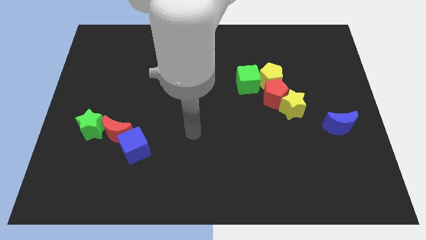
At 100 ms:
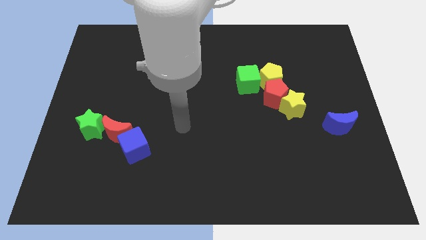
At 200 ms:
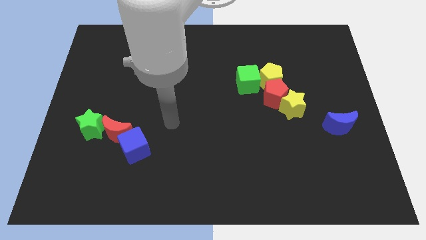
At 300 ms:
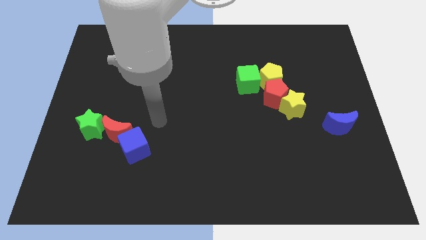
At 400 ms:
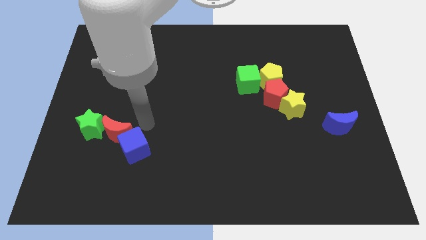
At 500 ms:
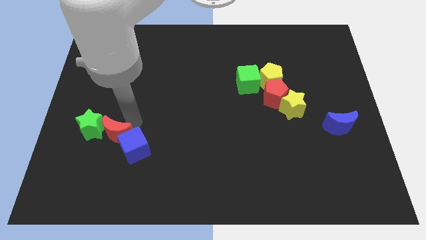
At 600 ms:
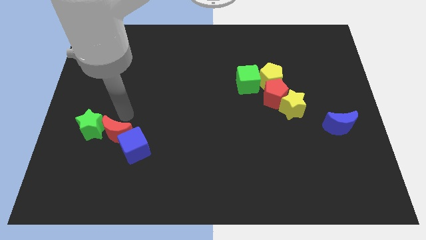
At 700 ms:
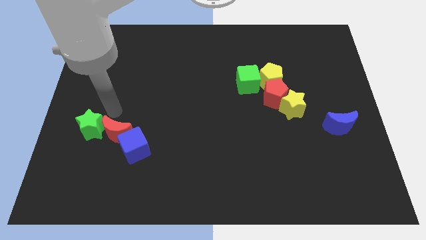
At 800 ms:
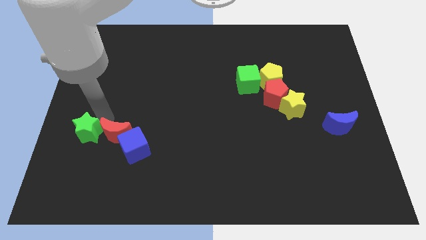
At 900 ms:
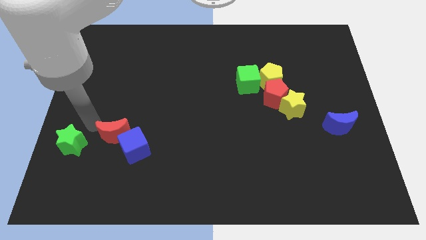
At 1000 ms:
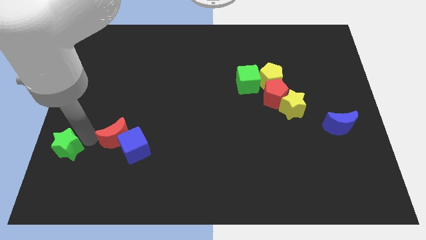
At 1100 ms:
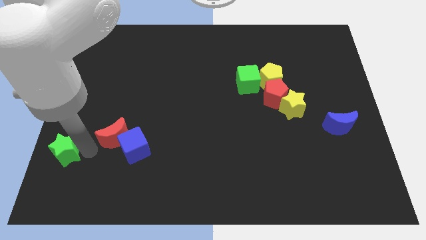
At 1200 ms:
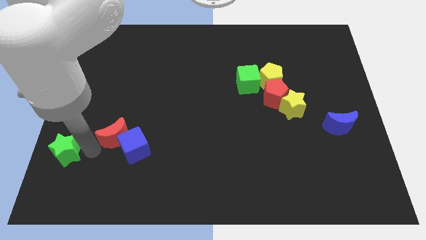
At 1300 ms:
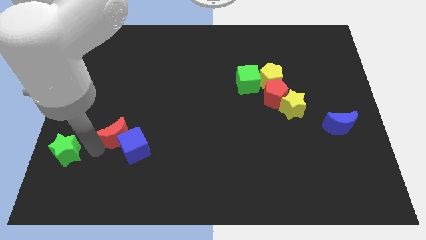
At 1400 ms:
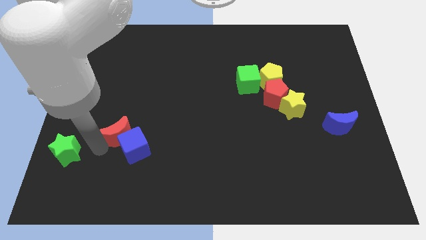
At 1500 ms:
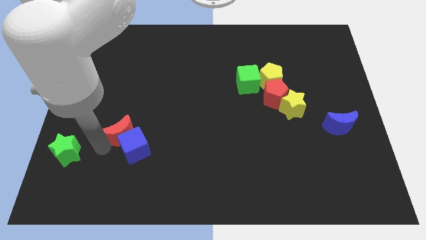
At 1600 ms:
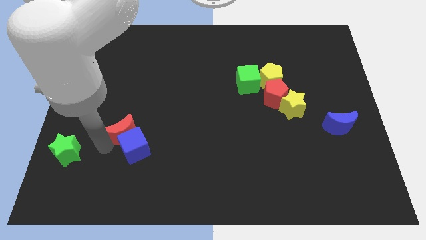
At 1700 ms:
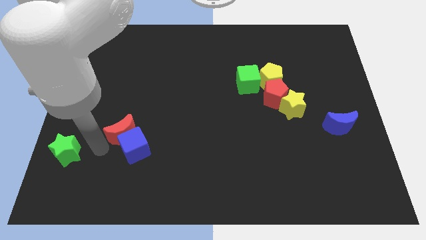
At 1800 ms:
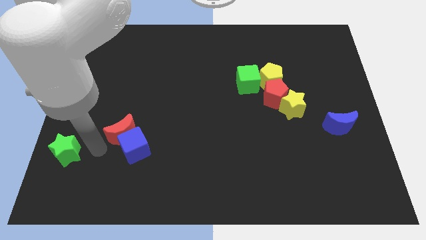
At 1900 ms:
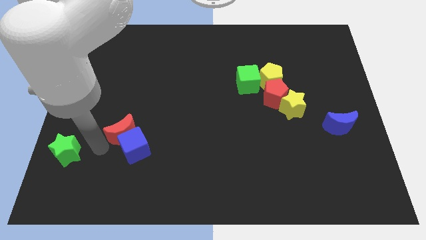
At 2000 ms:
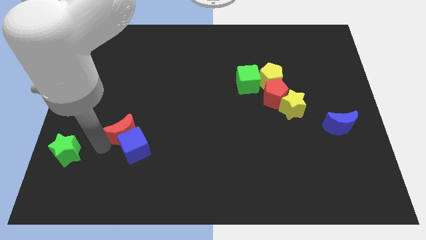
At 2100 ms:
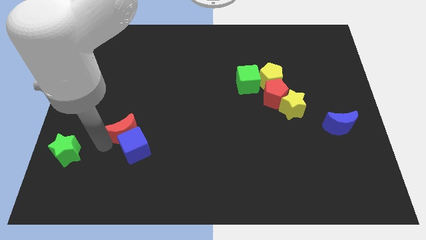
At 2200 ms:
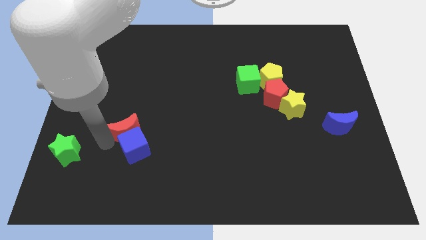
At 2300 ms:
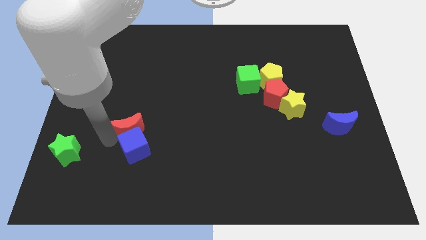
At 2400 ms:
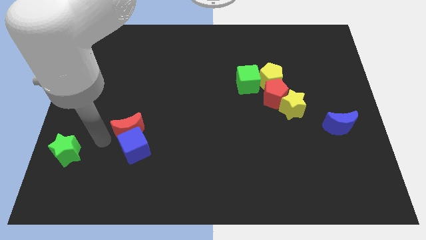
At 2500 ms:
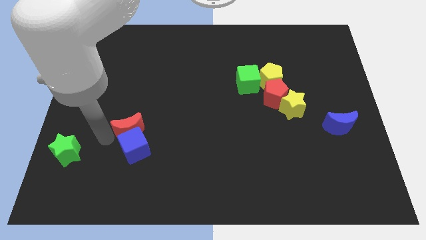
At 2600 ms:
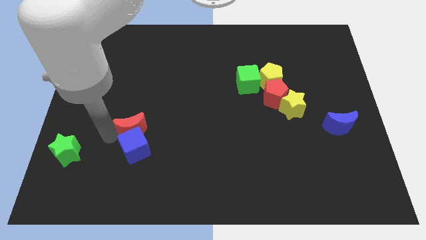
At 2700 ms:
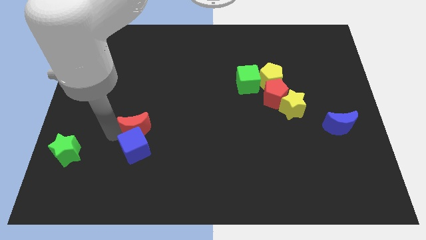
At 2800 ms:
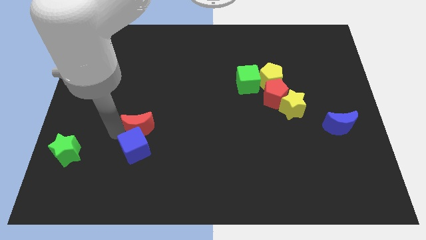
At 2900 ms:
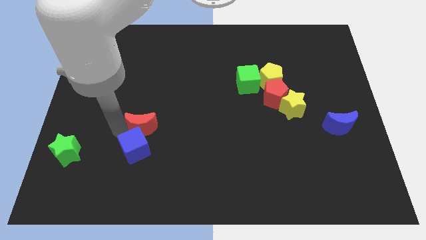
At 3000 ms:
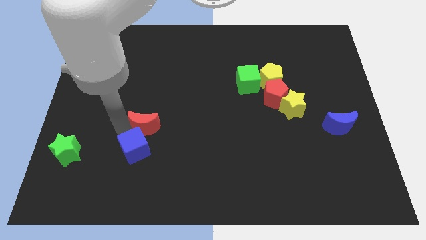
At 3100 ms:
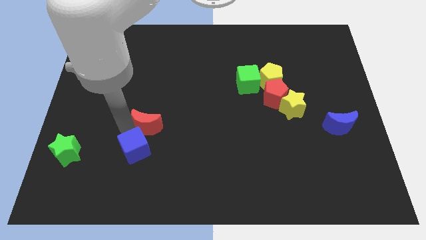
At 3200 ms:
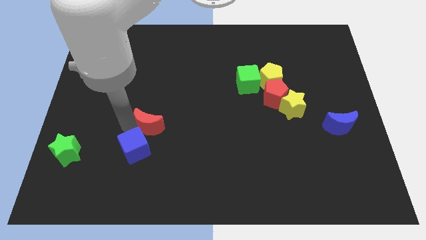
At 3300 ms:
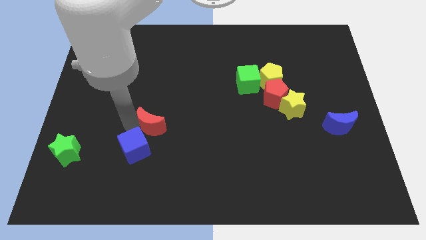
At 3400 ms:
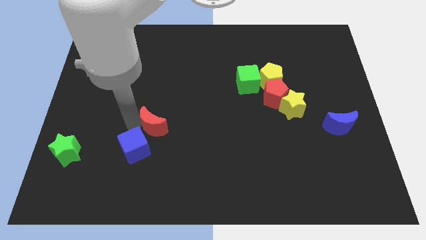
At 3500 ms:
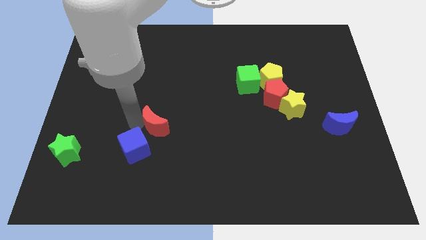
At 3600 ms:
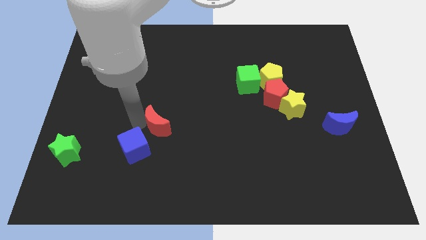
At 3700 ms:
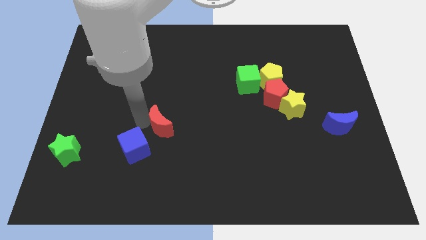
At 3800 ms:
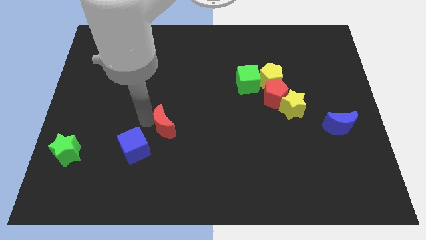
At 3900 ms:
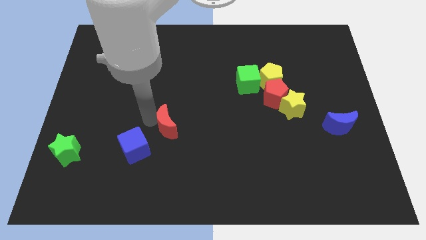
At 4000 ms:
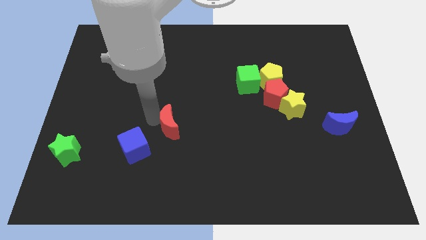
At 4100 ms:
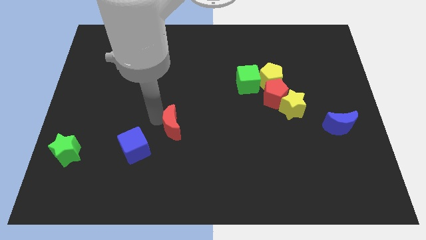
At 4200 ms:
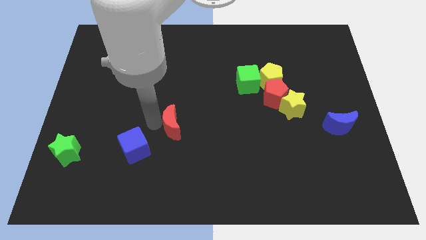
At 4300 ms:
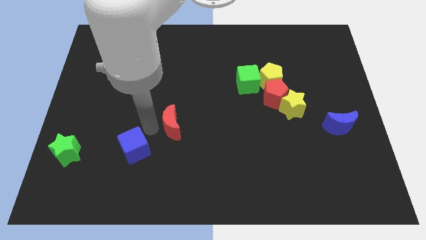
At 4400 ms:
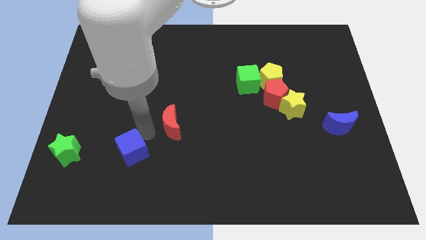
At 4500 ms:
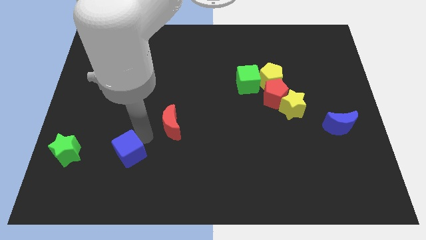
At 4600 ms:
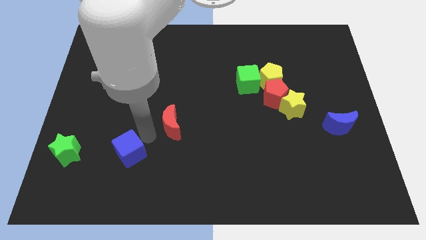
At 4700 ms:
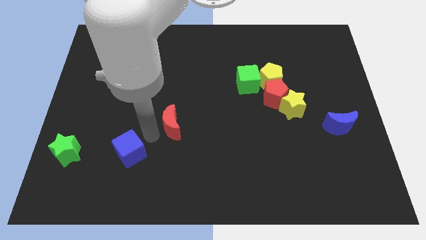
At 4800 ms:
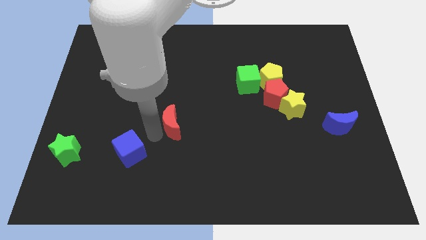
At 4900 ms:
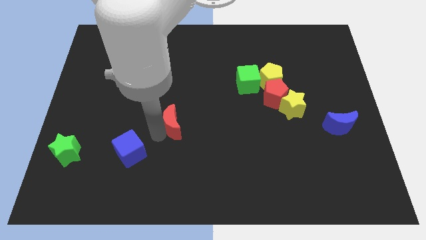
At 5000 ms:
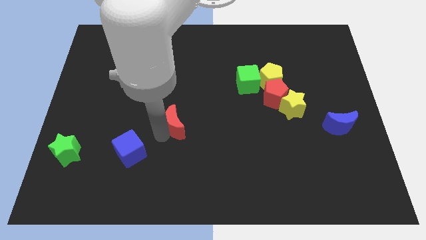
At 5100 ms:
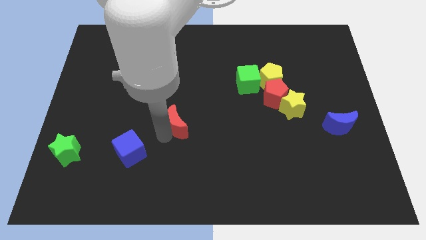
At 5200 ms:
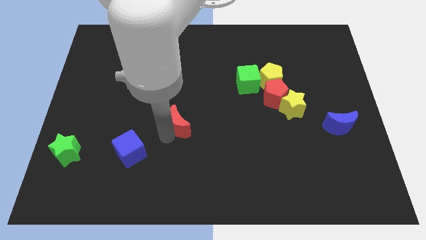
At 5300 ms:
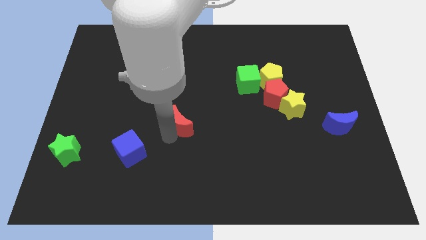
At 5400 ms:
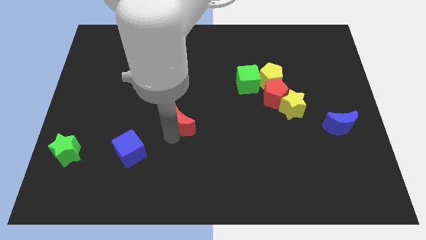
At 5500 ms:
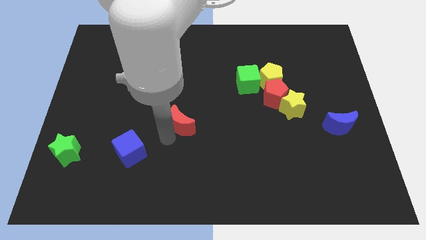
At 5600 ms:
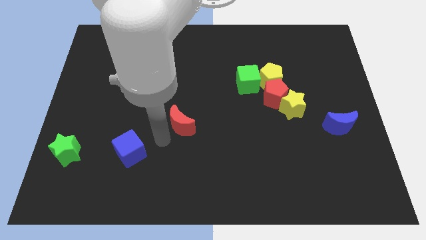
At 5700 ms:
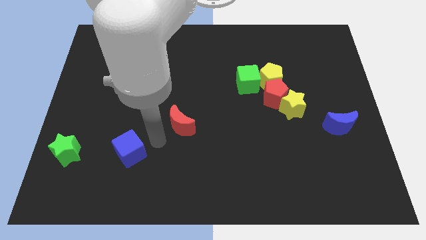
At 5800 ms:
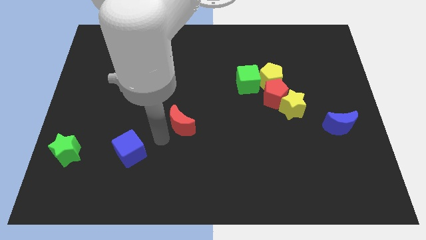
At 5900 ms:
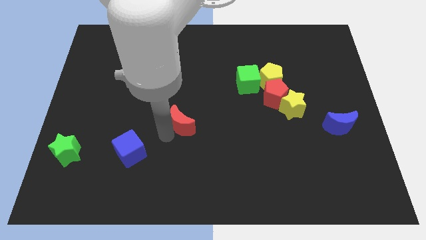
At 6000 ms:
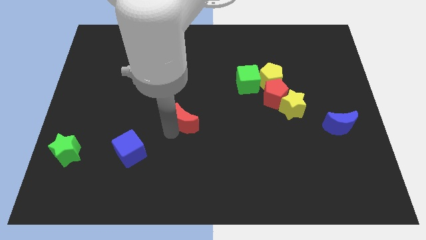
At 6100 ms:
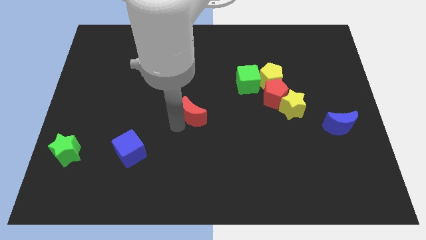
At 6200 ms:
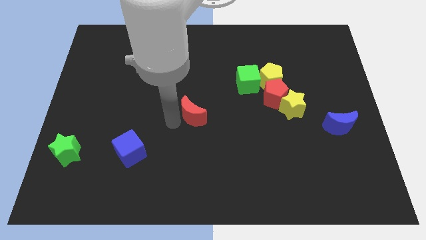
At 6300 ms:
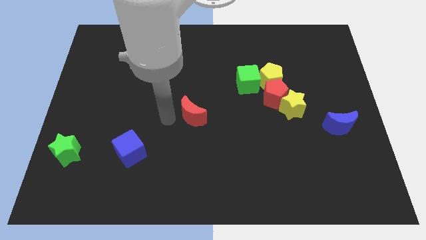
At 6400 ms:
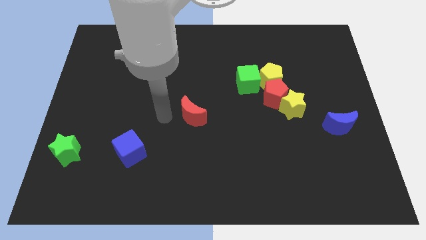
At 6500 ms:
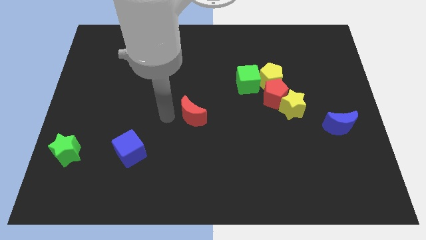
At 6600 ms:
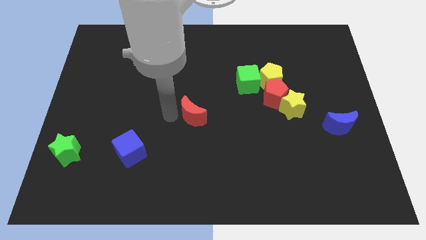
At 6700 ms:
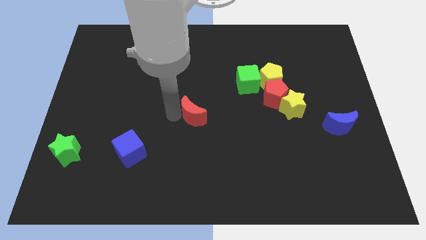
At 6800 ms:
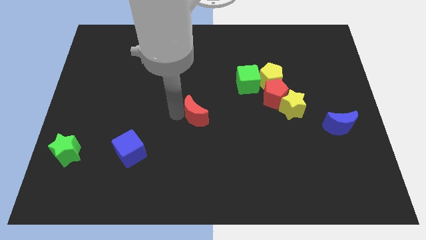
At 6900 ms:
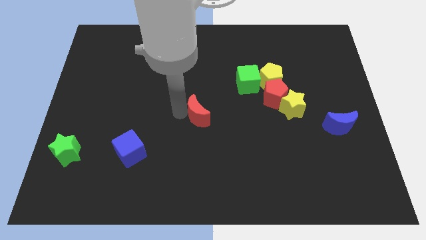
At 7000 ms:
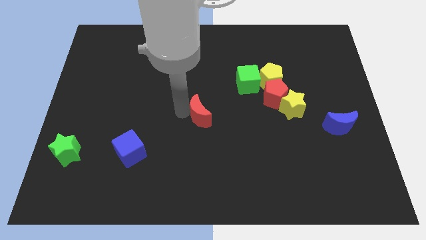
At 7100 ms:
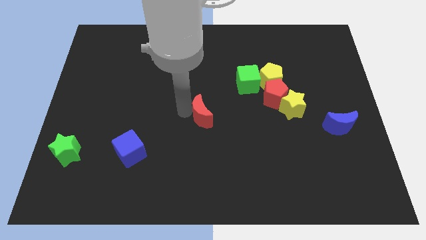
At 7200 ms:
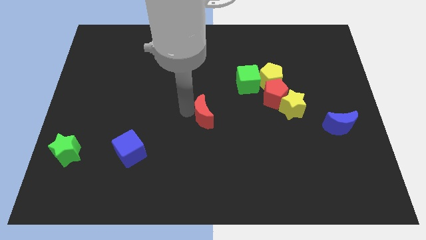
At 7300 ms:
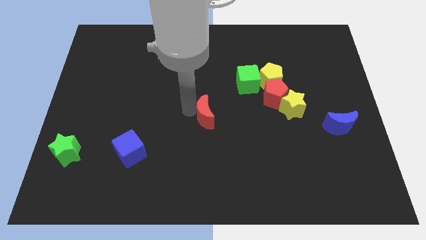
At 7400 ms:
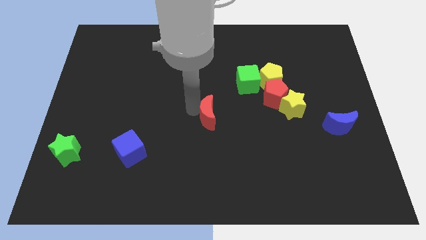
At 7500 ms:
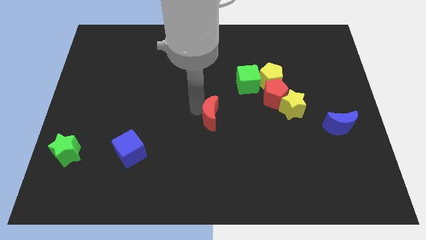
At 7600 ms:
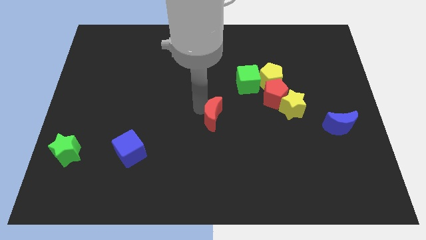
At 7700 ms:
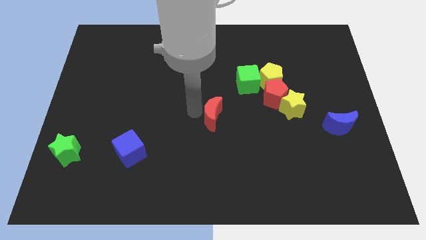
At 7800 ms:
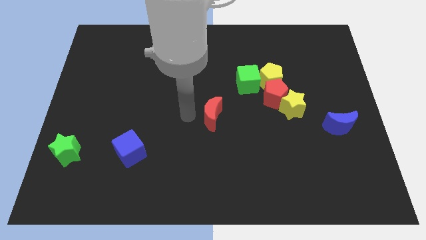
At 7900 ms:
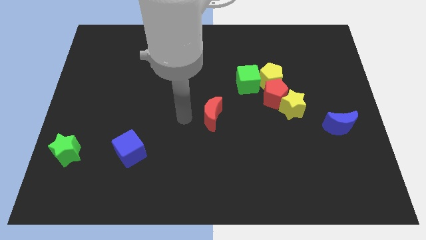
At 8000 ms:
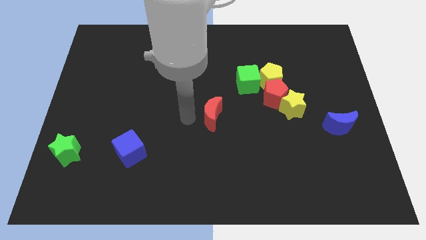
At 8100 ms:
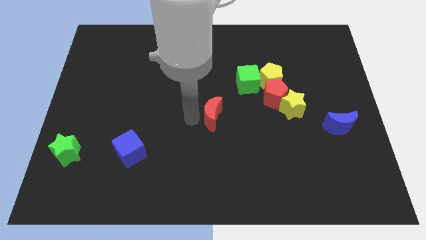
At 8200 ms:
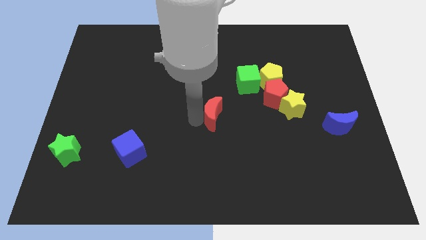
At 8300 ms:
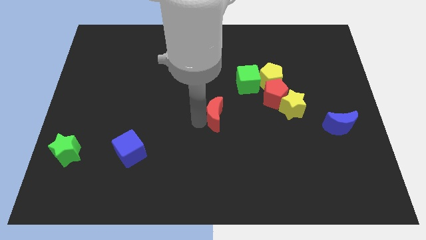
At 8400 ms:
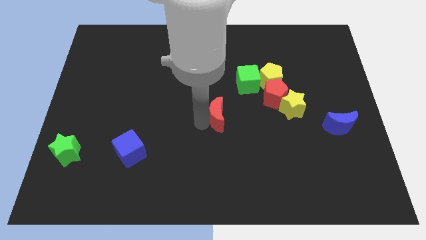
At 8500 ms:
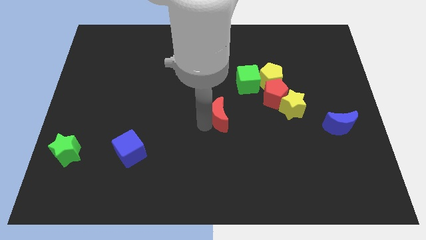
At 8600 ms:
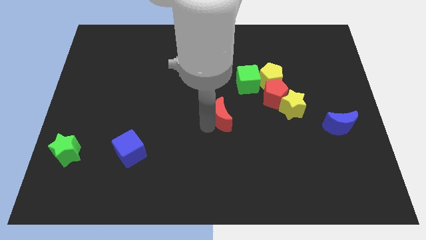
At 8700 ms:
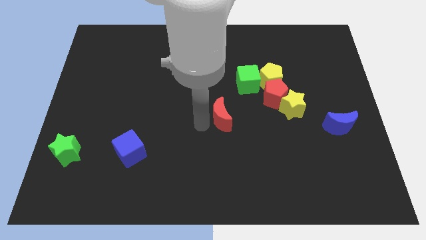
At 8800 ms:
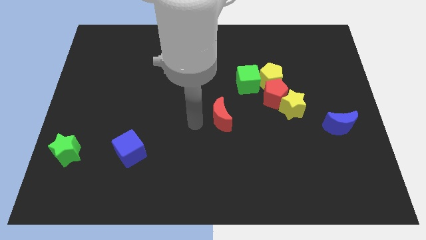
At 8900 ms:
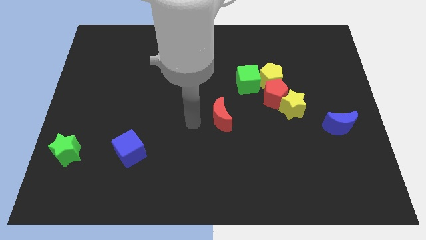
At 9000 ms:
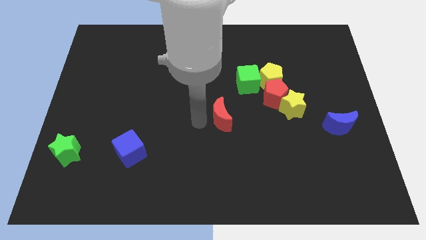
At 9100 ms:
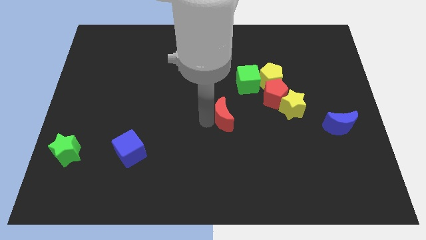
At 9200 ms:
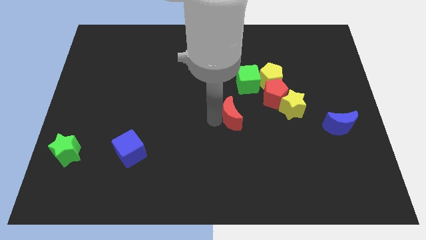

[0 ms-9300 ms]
slide the red moon to the bottom left of the red pentagon
